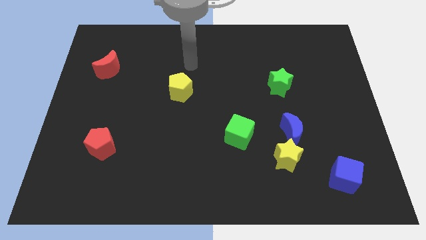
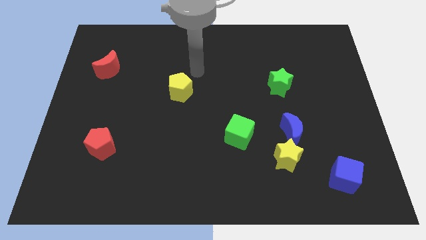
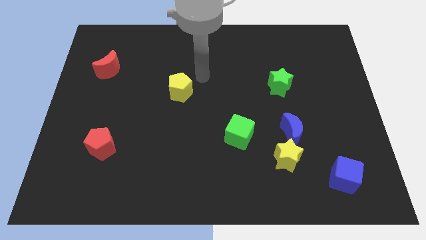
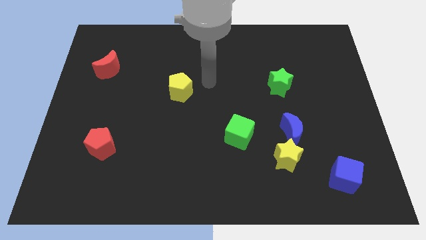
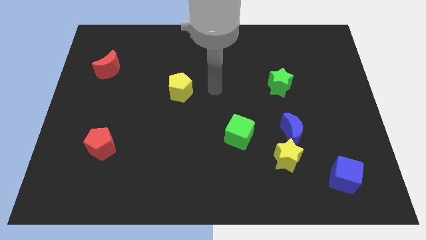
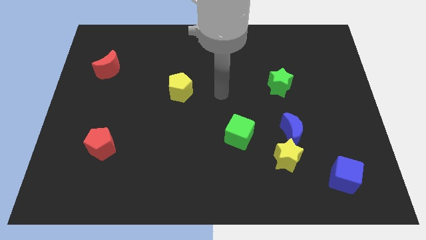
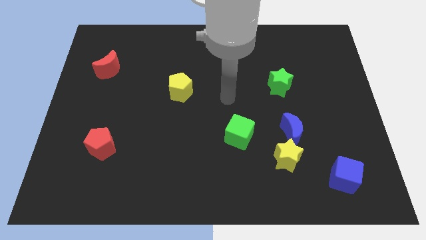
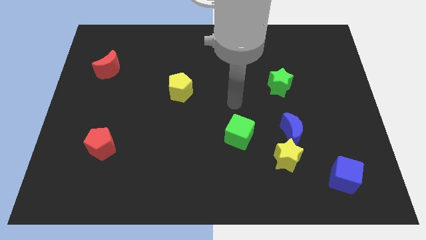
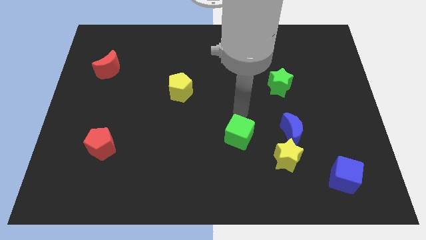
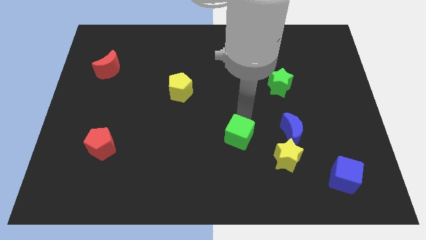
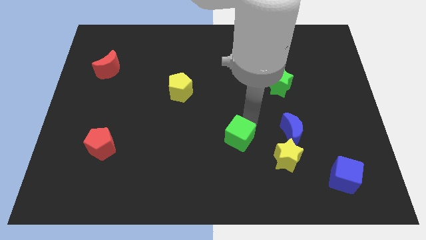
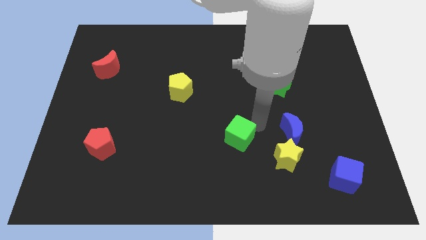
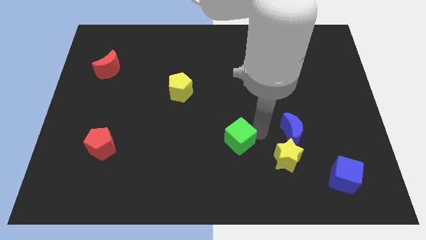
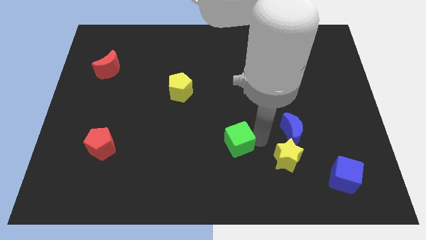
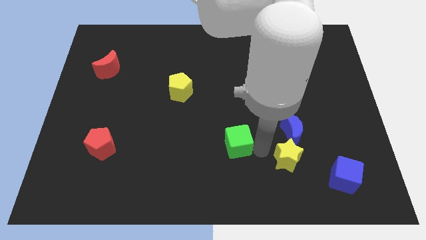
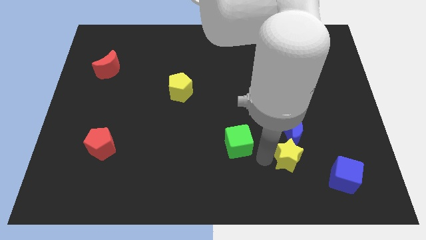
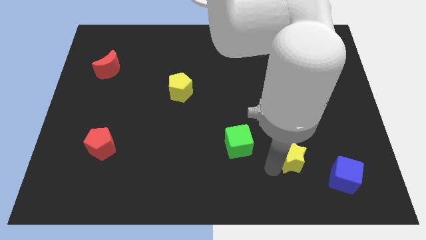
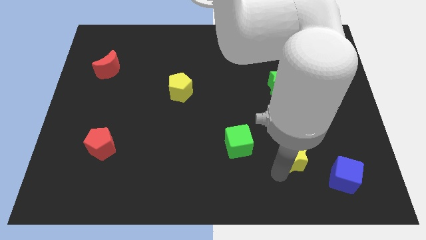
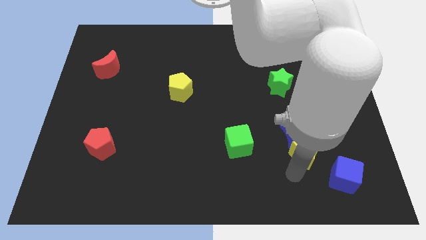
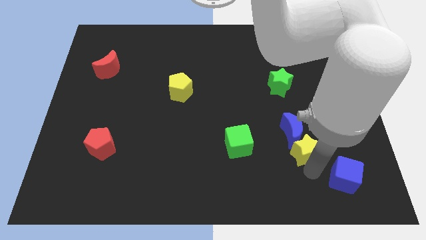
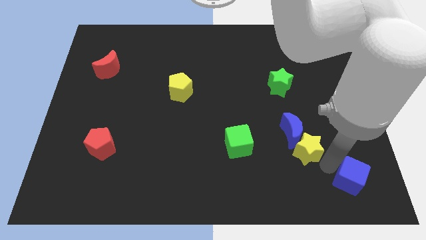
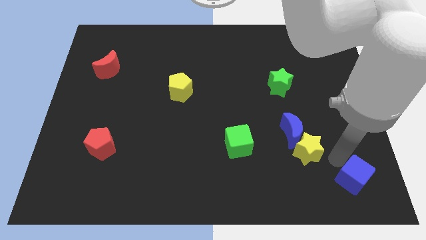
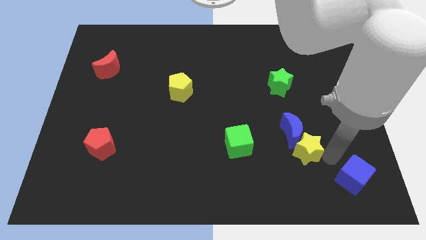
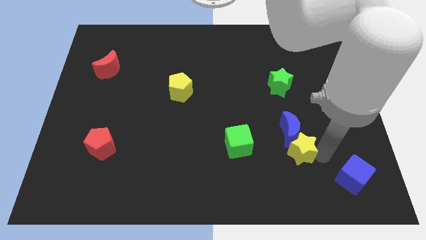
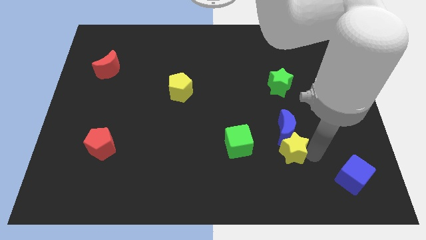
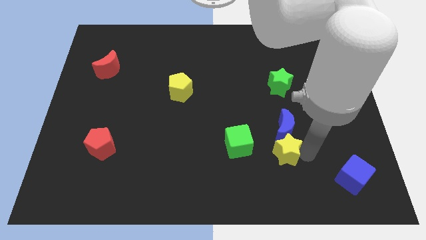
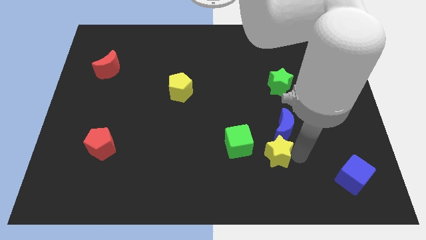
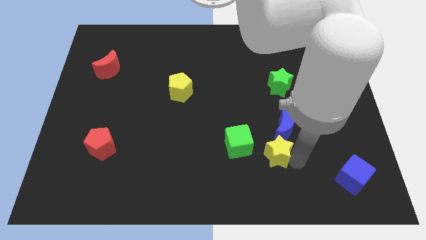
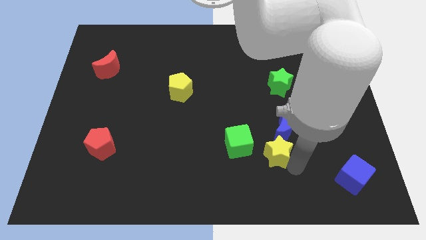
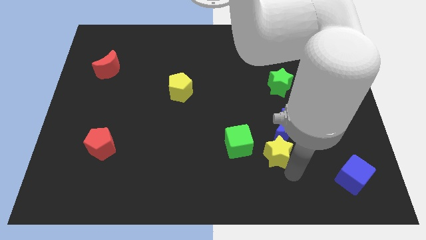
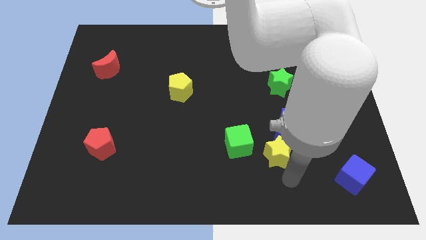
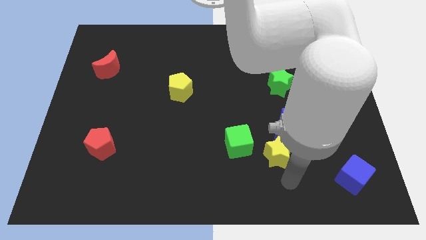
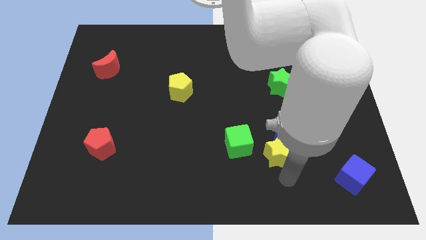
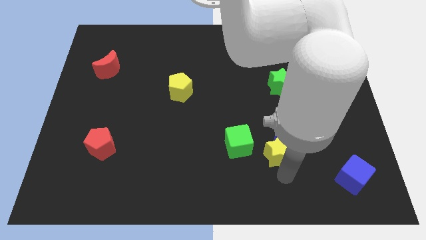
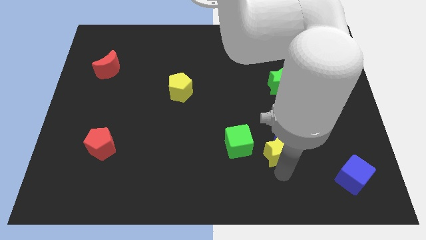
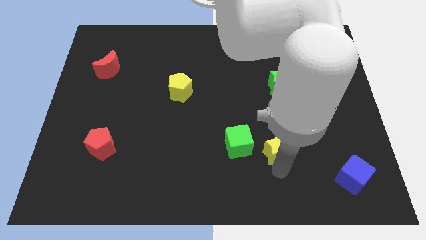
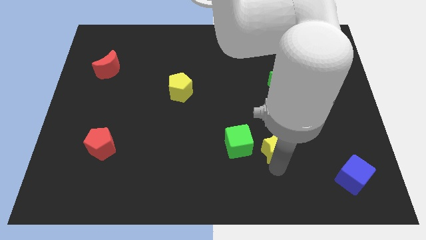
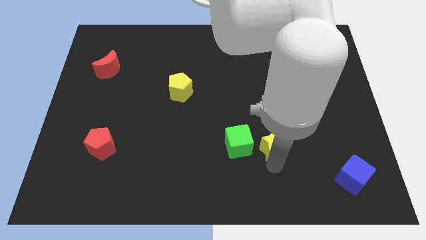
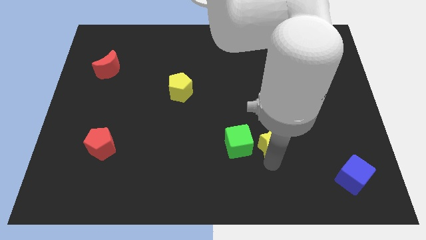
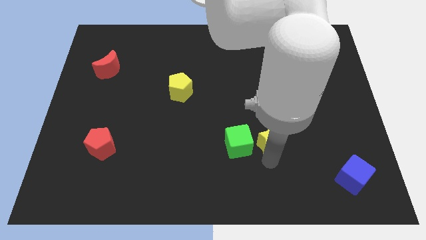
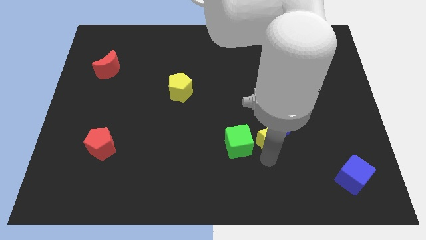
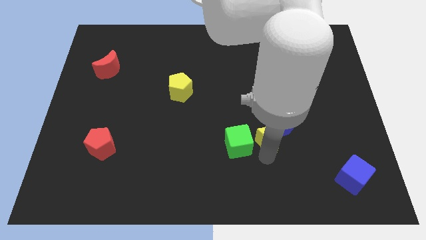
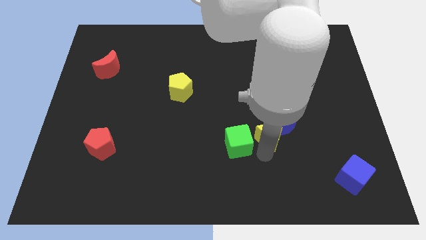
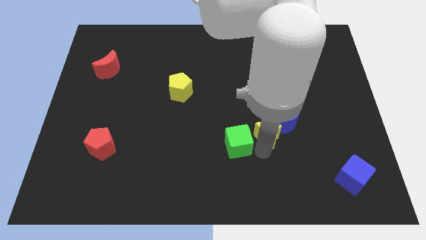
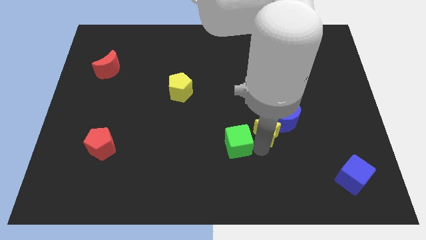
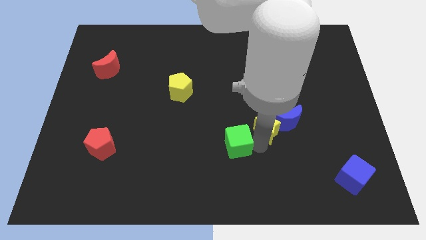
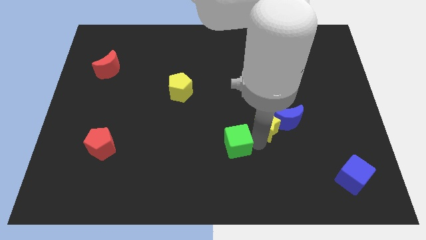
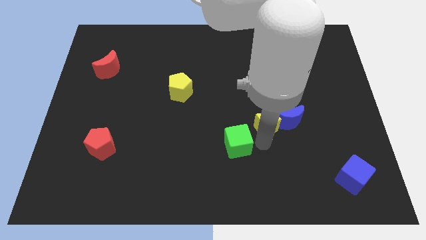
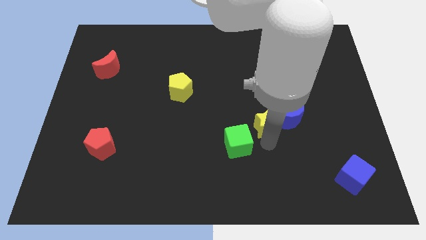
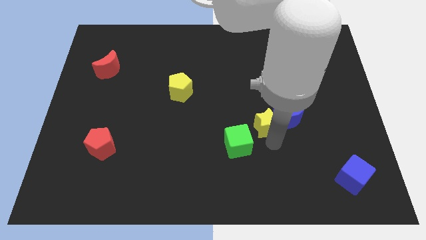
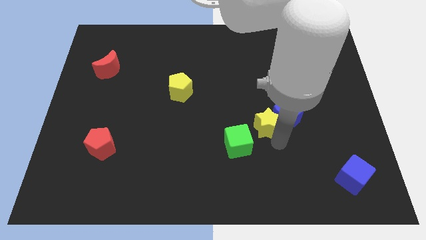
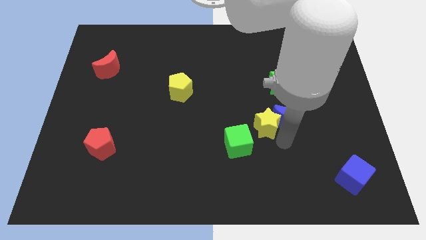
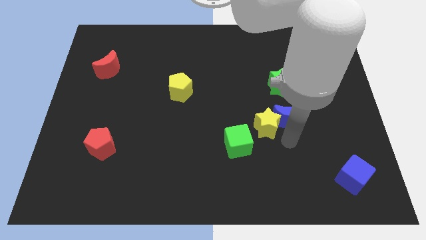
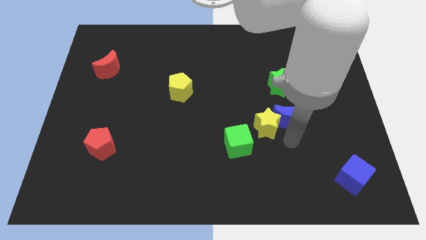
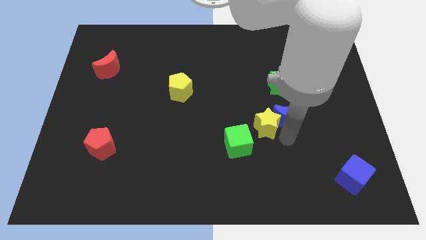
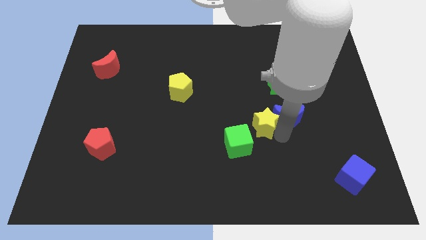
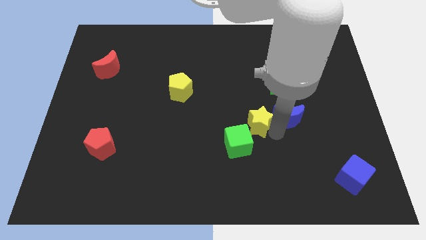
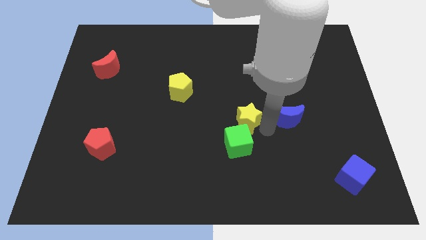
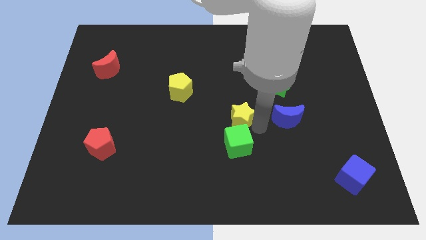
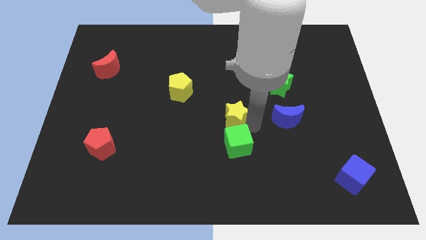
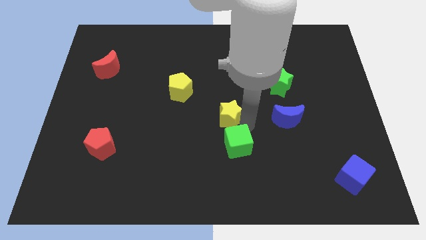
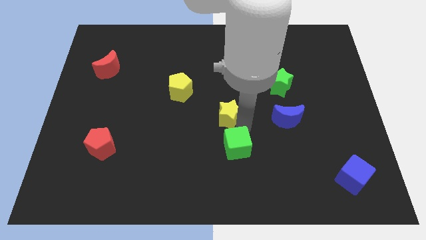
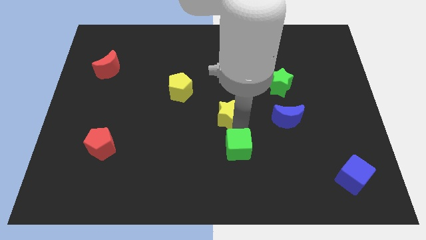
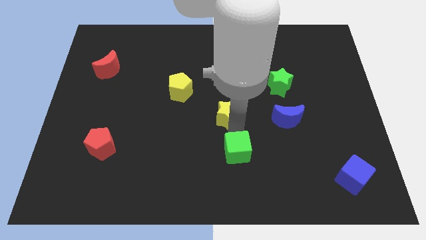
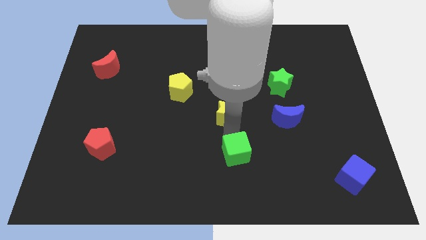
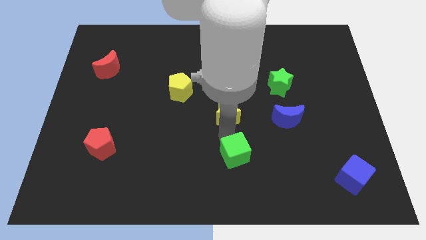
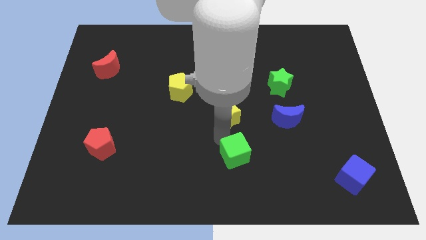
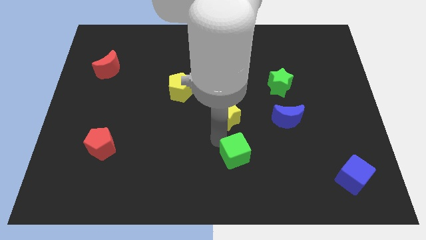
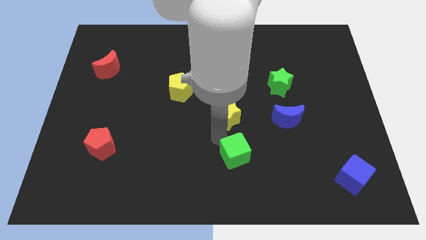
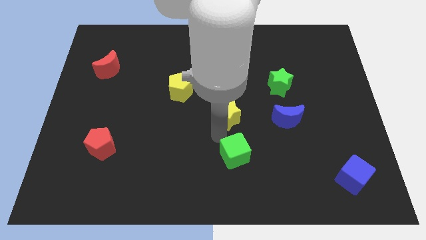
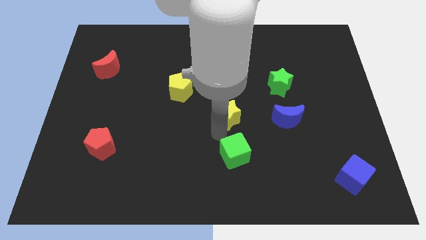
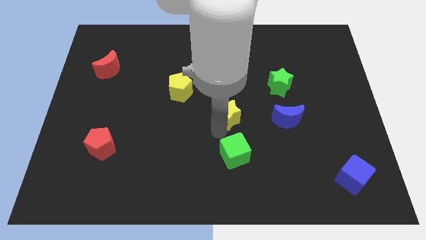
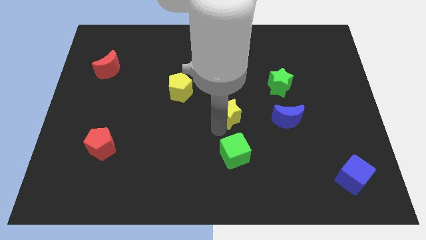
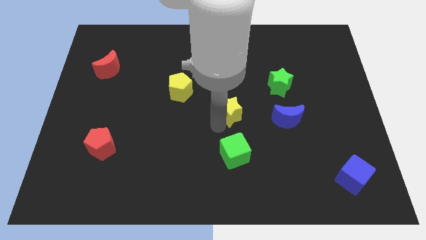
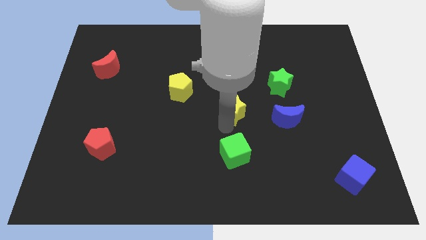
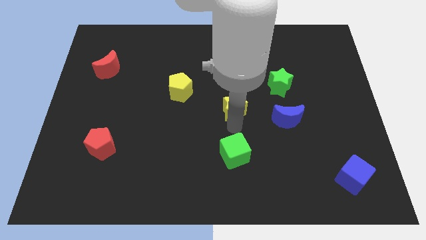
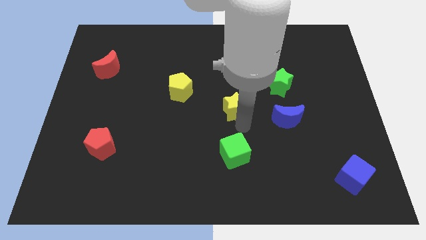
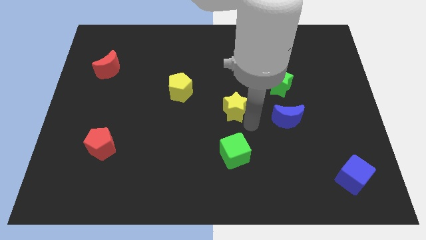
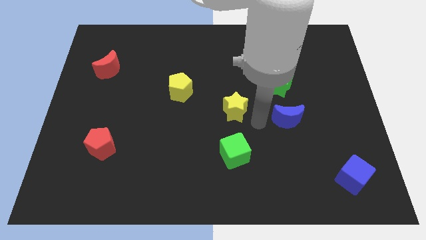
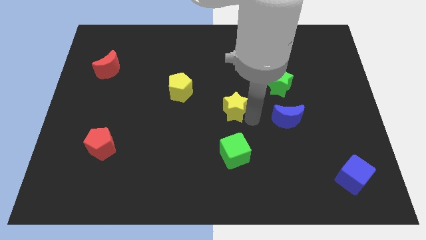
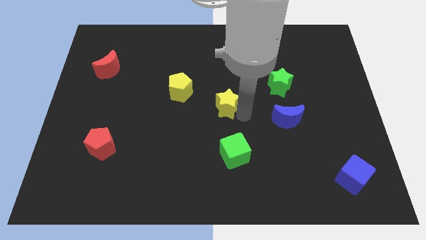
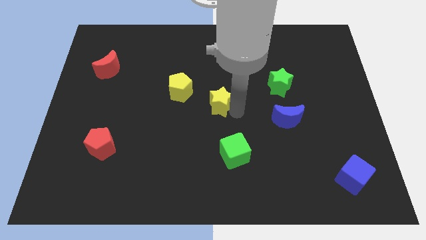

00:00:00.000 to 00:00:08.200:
move the yellow star upwards and to the left
